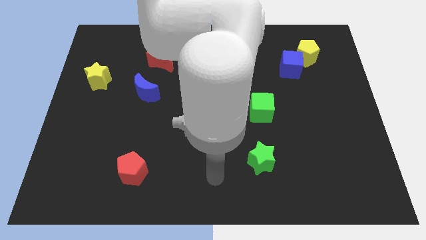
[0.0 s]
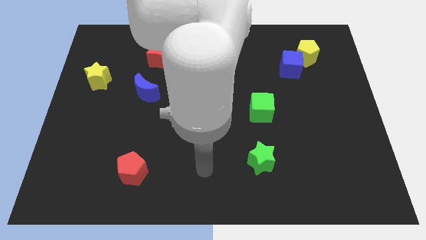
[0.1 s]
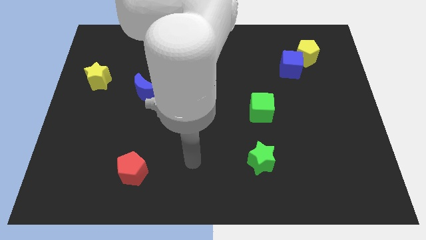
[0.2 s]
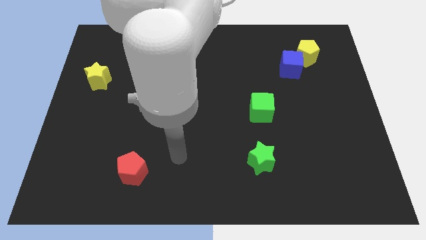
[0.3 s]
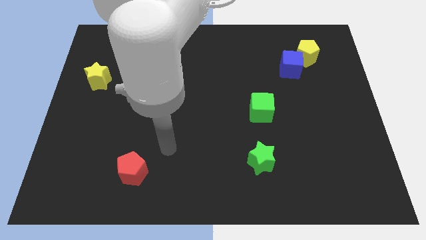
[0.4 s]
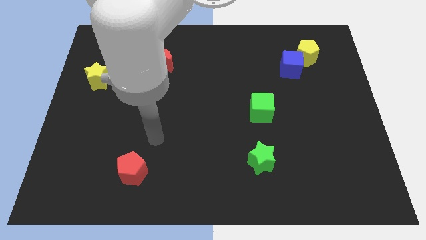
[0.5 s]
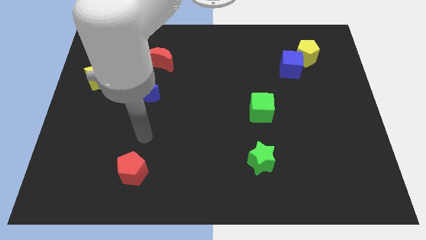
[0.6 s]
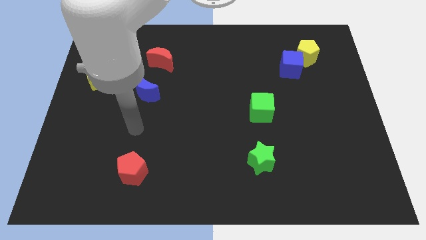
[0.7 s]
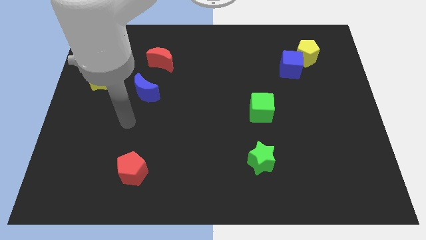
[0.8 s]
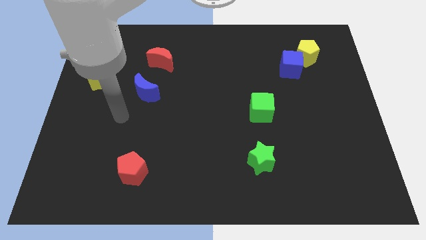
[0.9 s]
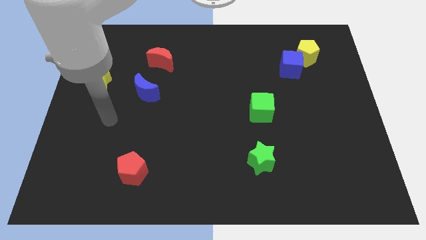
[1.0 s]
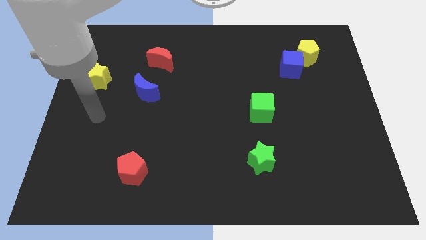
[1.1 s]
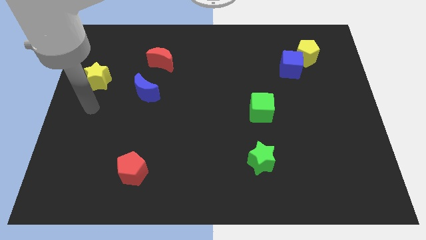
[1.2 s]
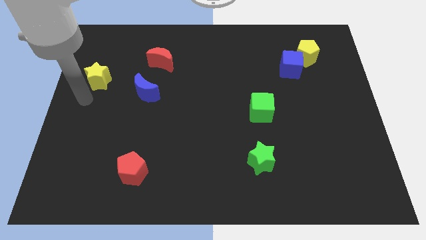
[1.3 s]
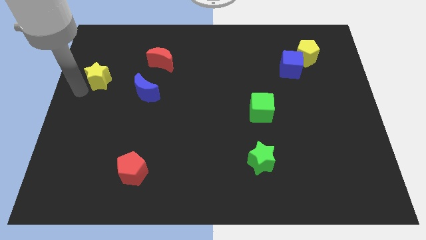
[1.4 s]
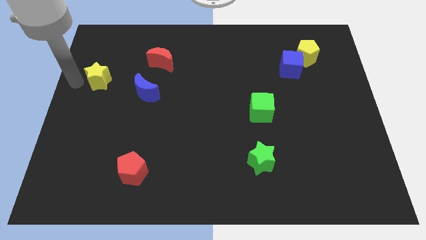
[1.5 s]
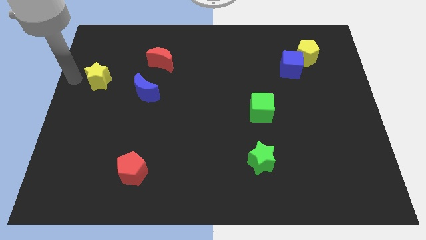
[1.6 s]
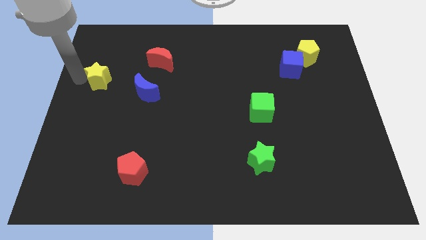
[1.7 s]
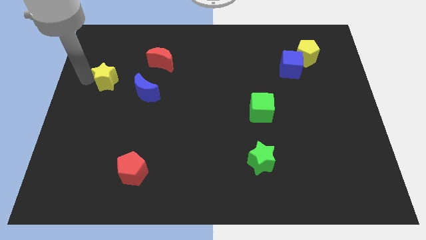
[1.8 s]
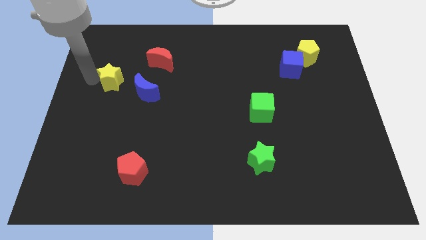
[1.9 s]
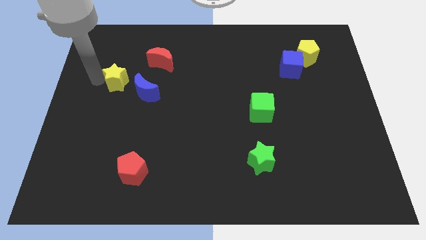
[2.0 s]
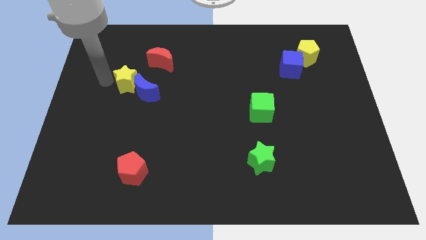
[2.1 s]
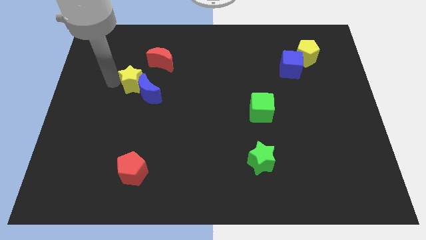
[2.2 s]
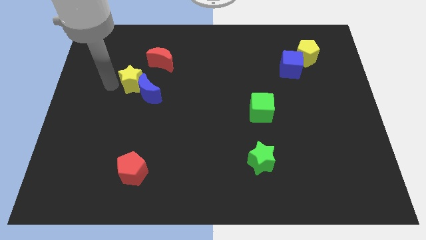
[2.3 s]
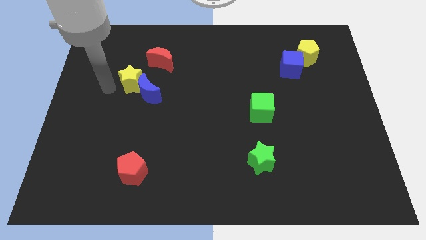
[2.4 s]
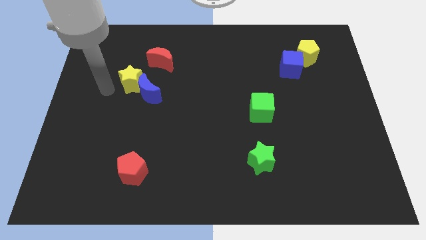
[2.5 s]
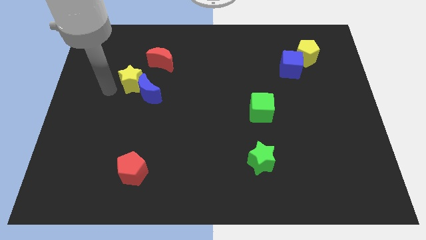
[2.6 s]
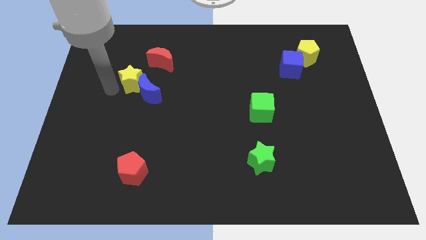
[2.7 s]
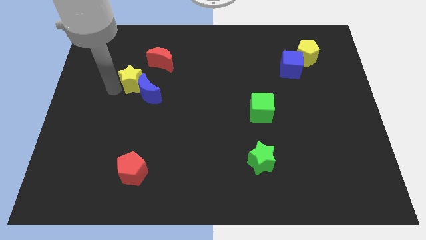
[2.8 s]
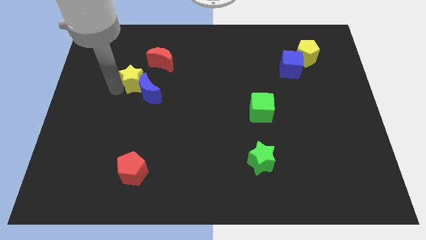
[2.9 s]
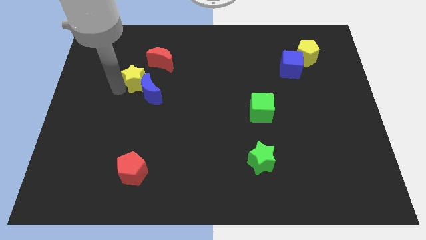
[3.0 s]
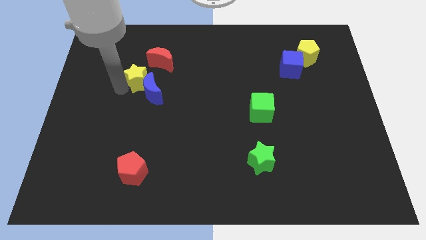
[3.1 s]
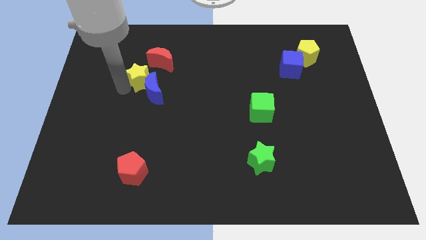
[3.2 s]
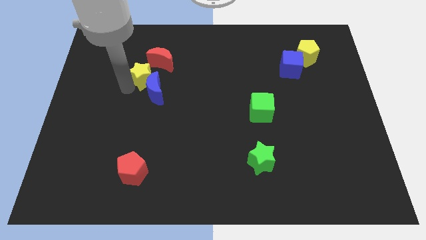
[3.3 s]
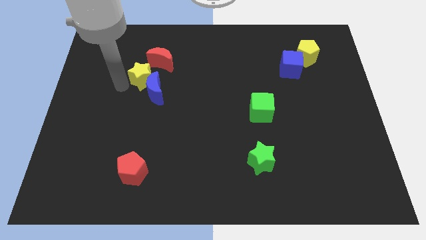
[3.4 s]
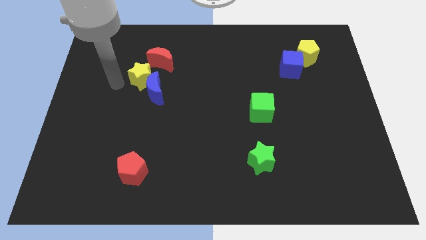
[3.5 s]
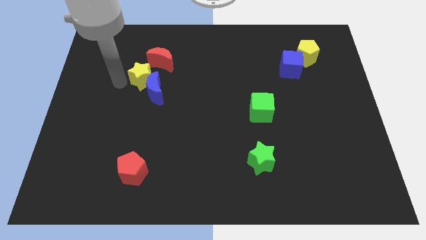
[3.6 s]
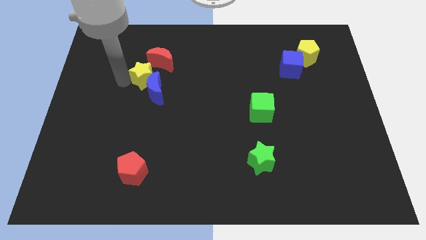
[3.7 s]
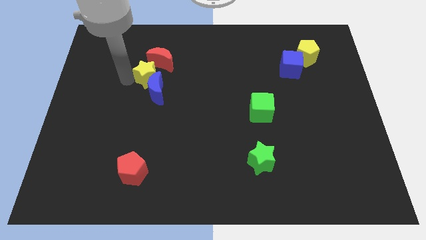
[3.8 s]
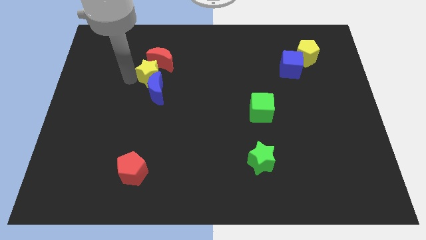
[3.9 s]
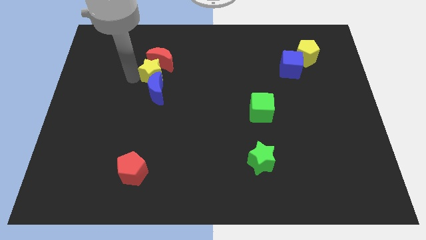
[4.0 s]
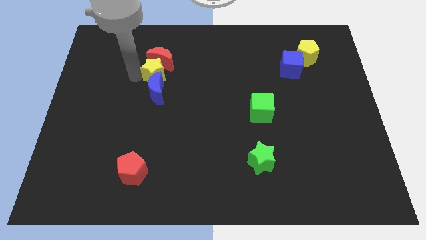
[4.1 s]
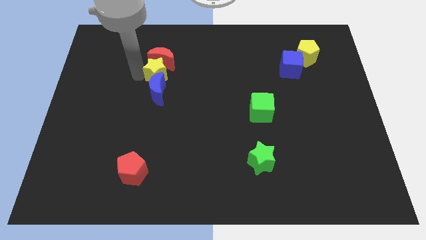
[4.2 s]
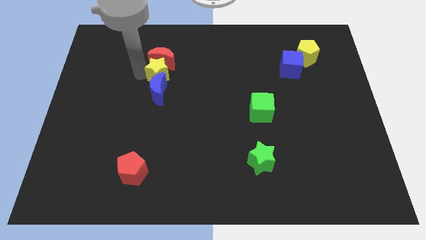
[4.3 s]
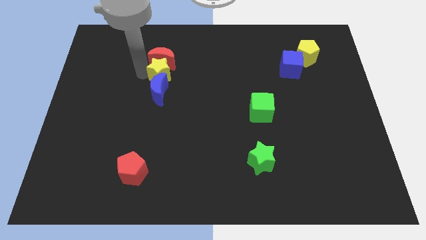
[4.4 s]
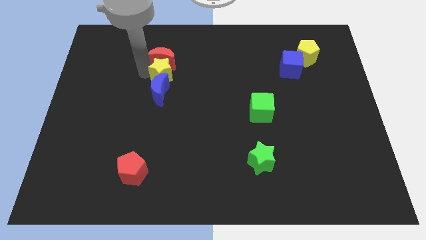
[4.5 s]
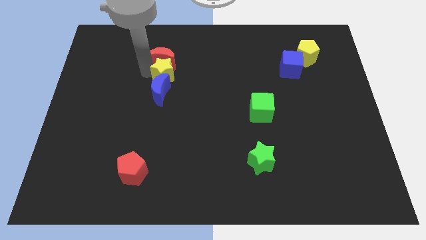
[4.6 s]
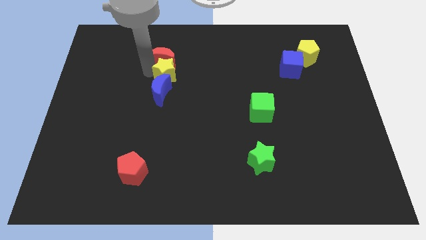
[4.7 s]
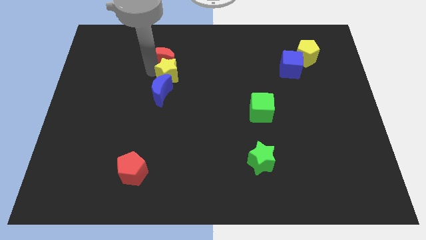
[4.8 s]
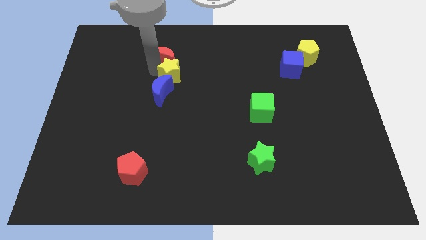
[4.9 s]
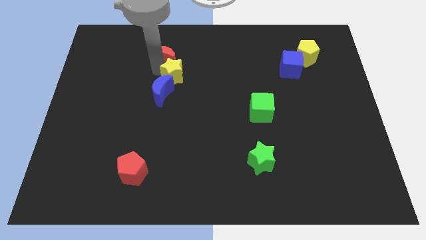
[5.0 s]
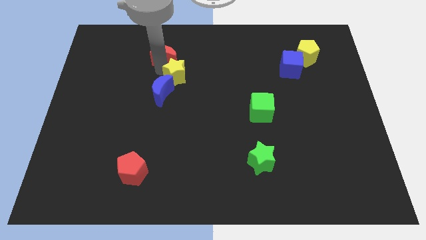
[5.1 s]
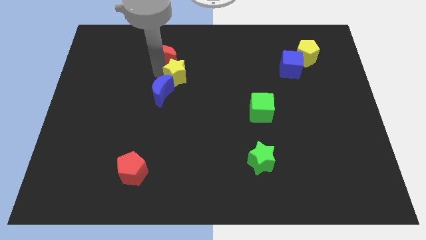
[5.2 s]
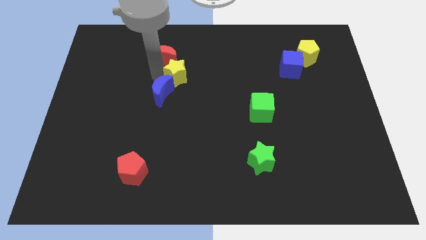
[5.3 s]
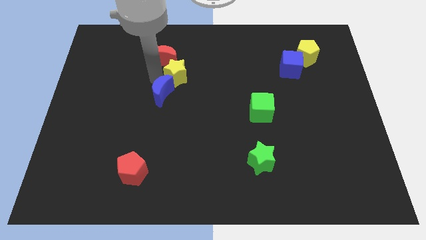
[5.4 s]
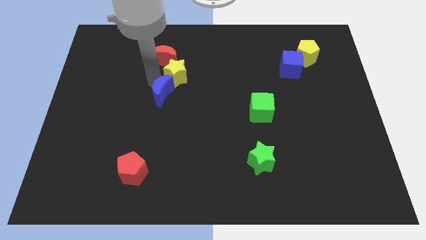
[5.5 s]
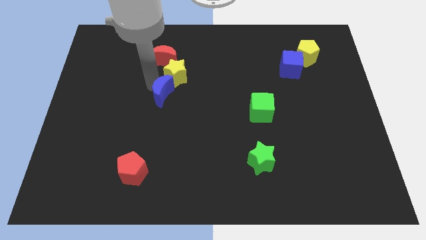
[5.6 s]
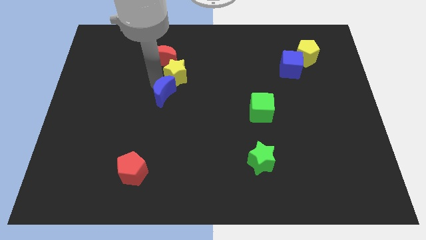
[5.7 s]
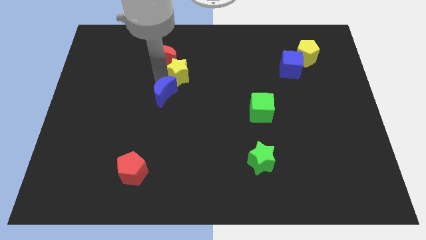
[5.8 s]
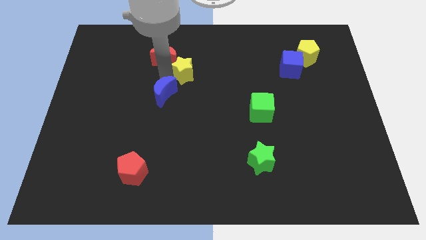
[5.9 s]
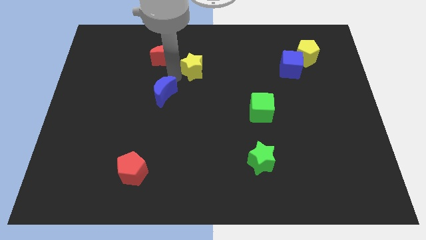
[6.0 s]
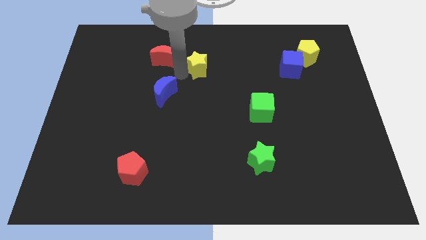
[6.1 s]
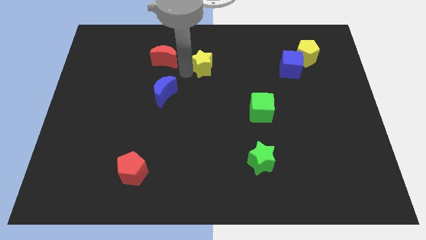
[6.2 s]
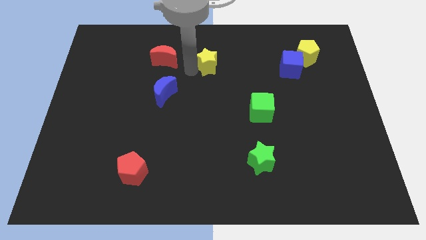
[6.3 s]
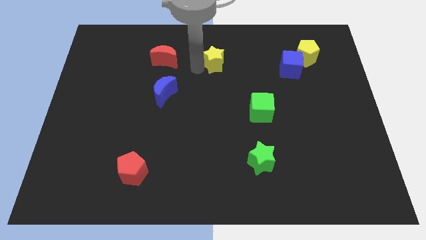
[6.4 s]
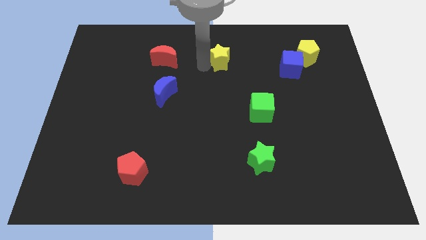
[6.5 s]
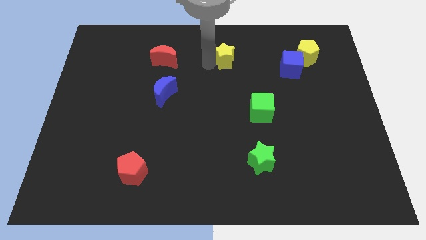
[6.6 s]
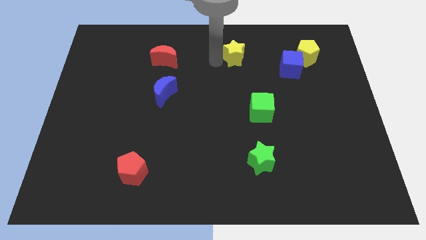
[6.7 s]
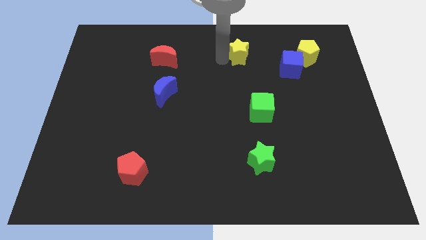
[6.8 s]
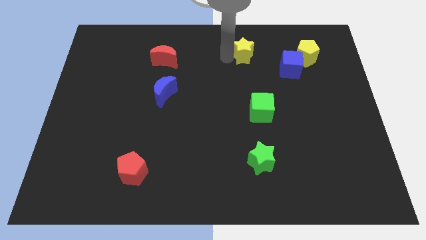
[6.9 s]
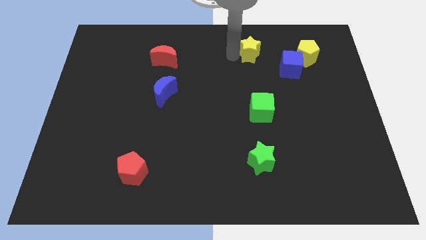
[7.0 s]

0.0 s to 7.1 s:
put the yellow star to the left side of the yellow pentagon

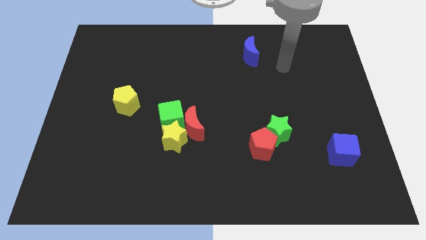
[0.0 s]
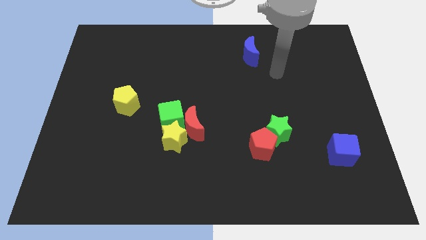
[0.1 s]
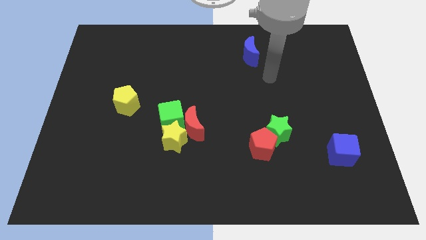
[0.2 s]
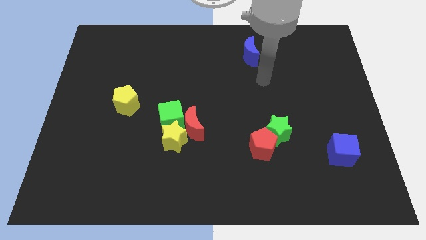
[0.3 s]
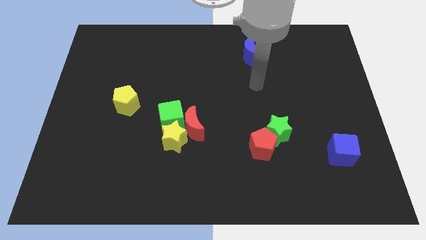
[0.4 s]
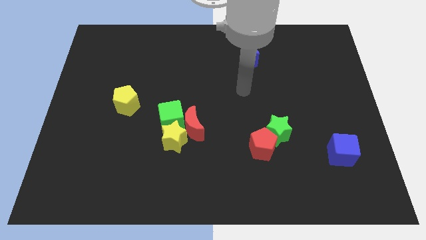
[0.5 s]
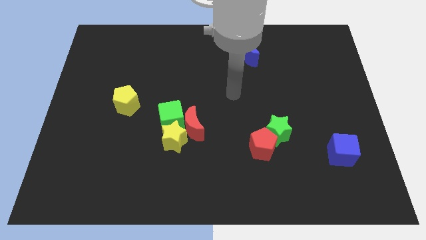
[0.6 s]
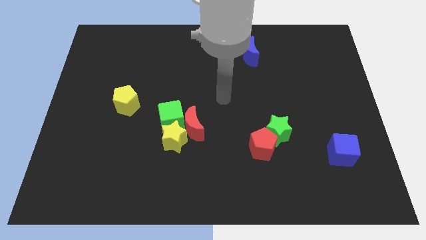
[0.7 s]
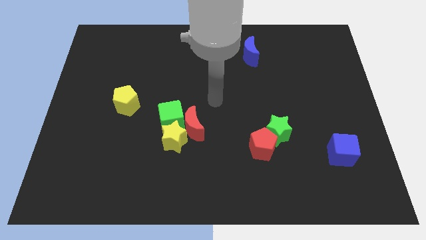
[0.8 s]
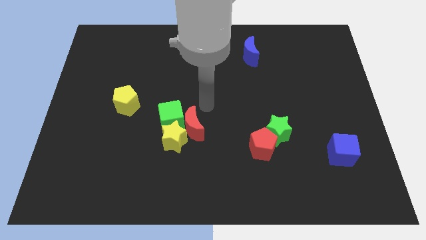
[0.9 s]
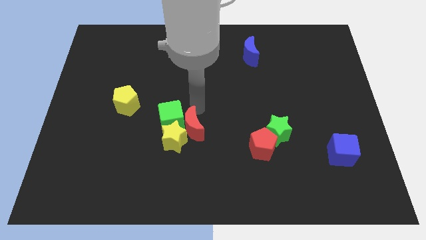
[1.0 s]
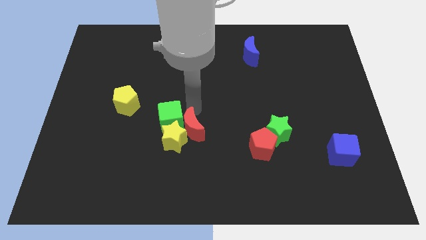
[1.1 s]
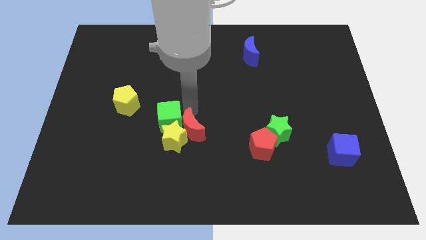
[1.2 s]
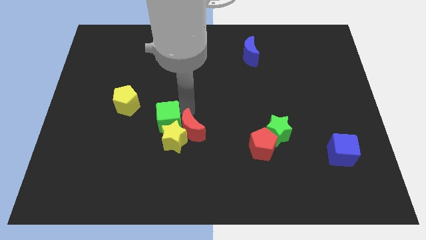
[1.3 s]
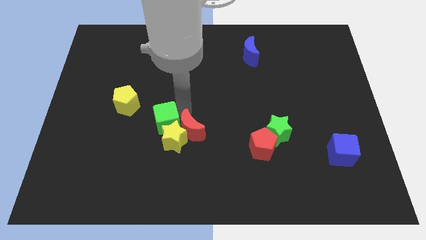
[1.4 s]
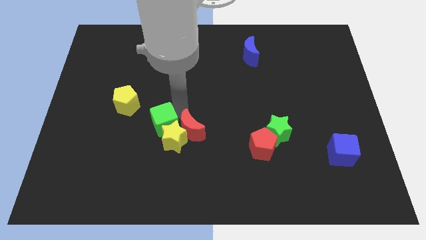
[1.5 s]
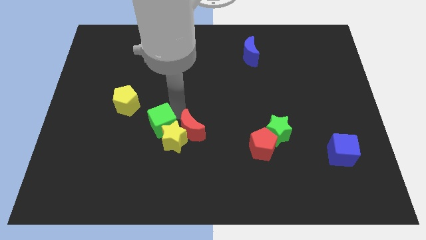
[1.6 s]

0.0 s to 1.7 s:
push the green cube to the left side of the yellow star
